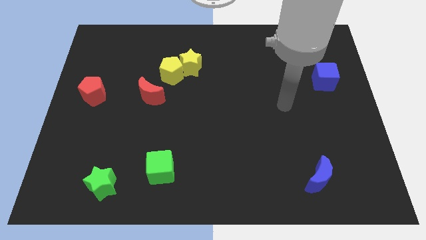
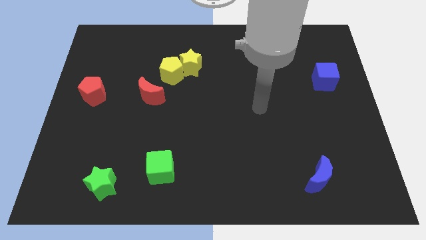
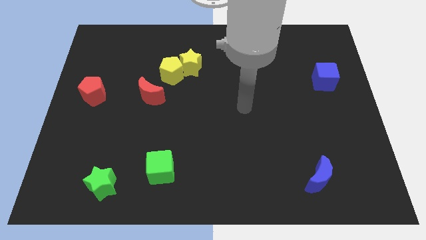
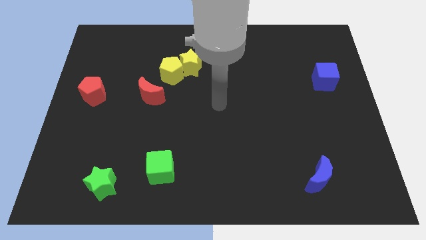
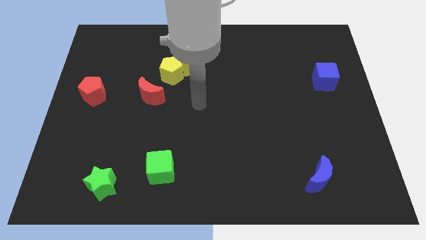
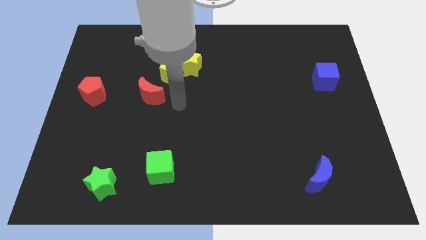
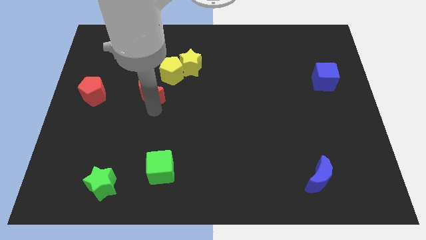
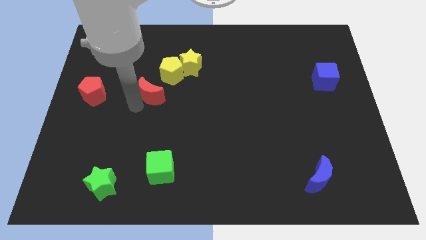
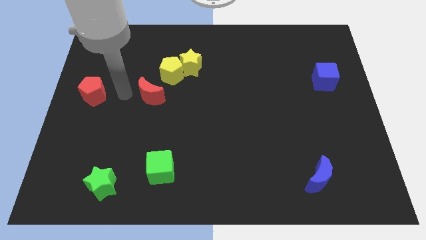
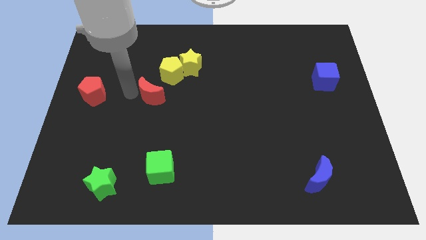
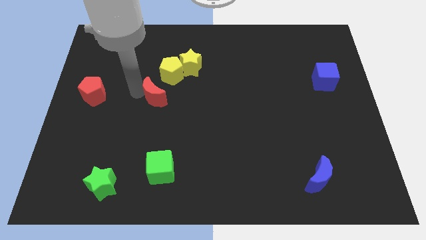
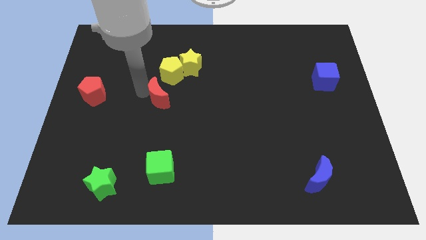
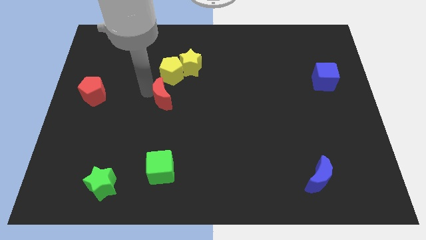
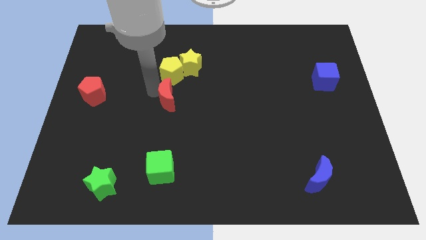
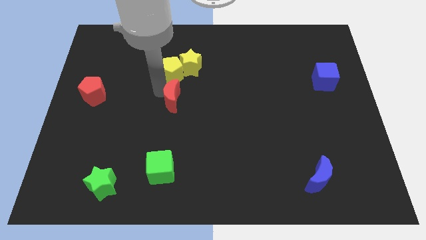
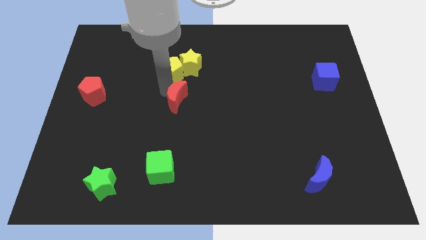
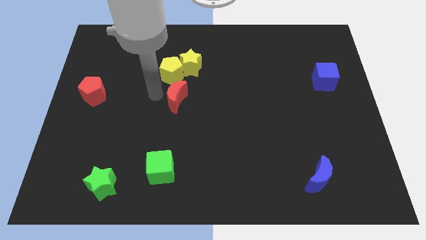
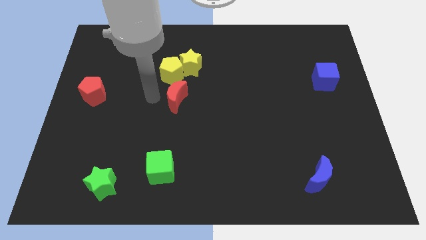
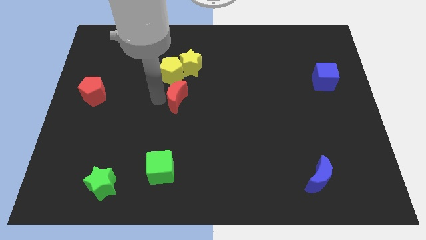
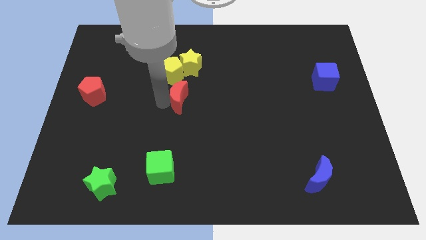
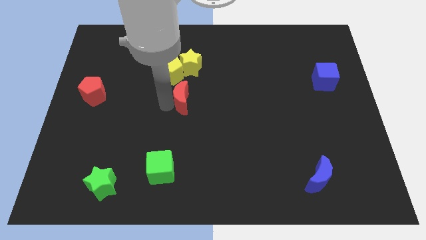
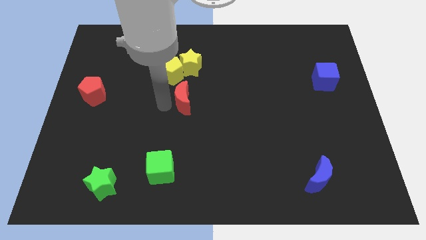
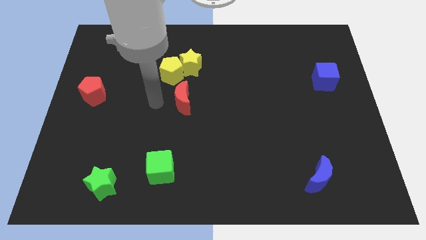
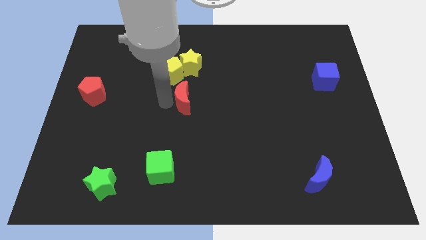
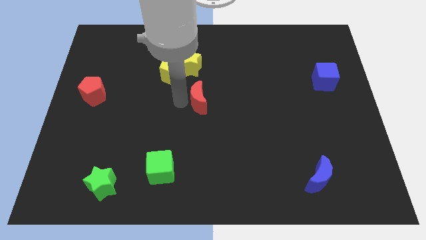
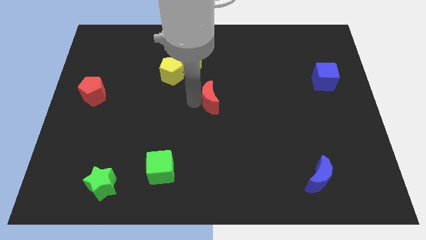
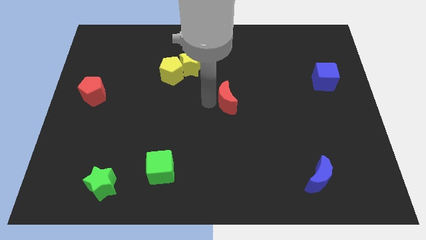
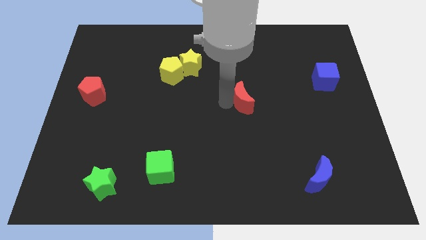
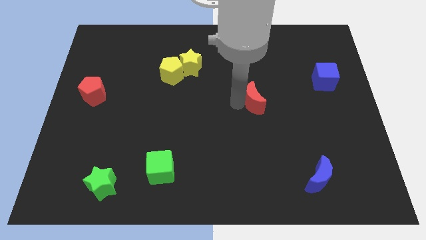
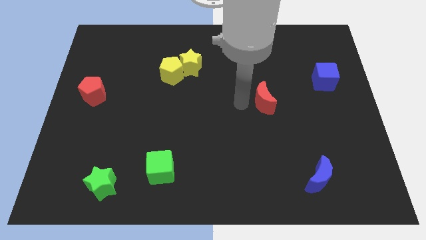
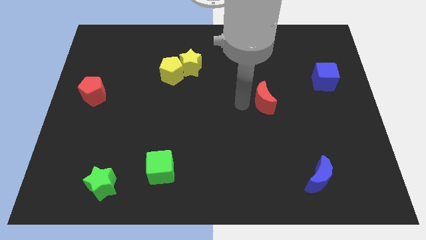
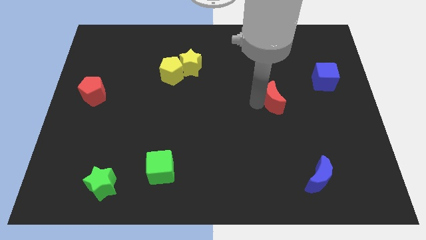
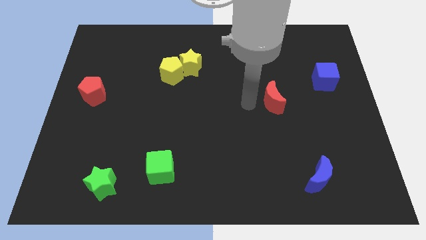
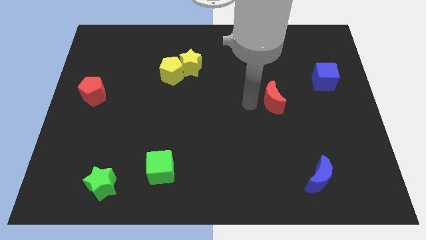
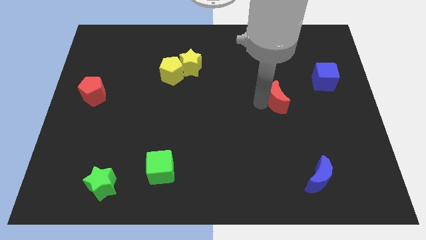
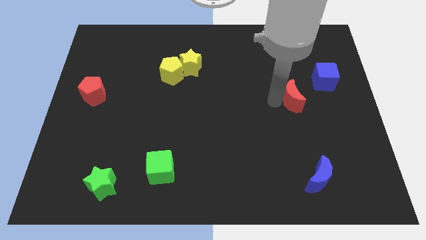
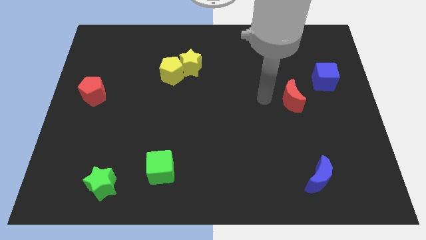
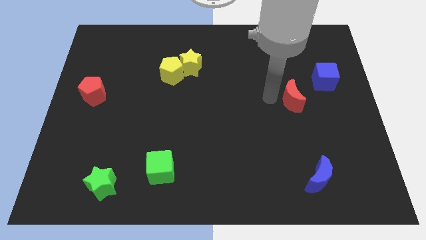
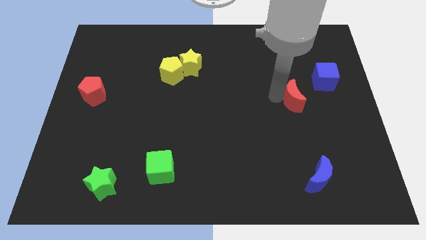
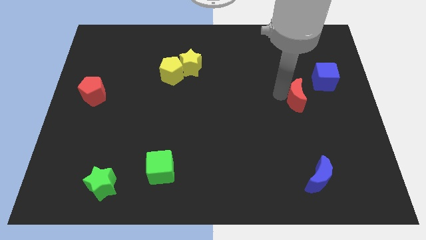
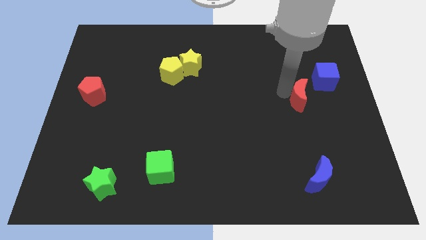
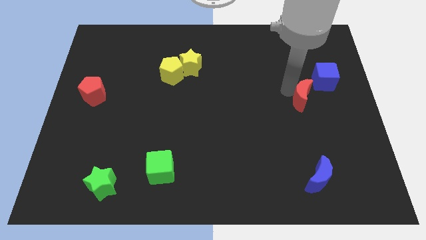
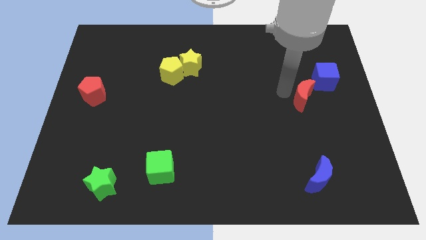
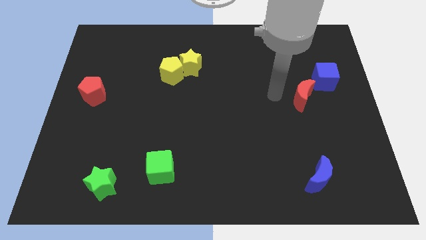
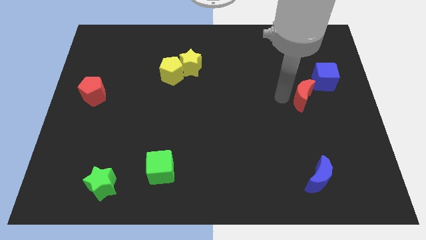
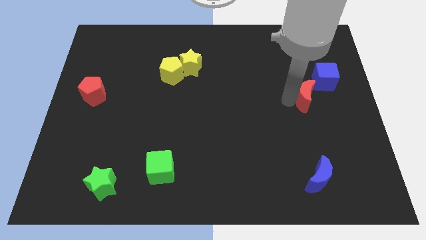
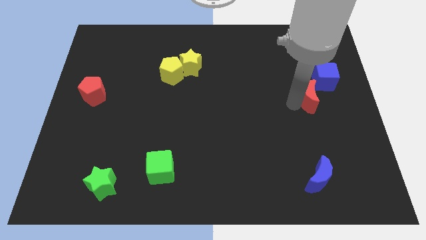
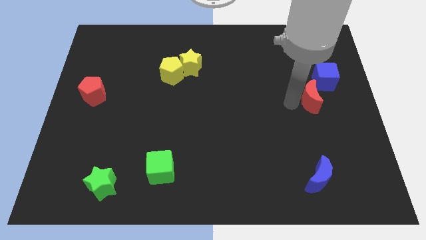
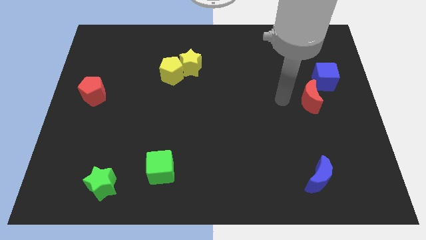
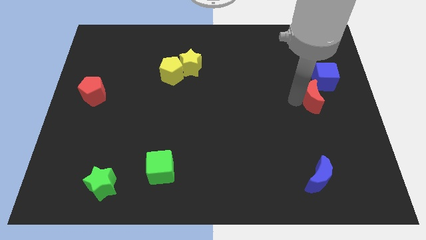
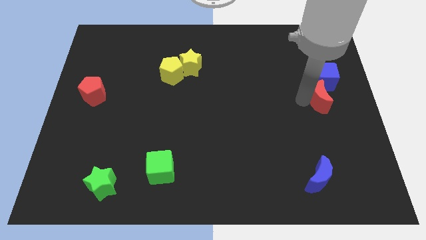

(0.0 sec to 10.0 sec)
slide the red moon to the center right

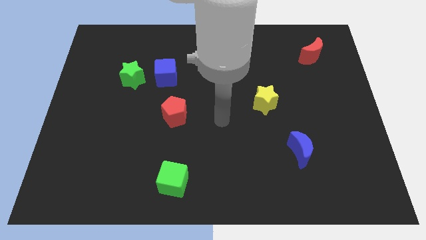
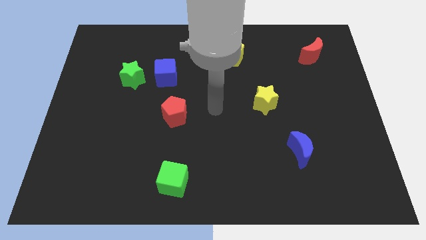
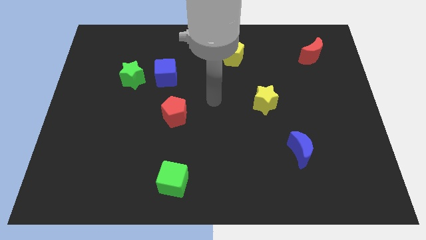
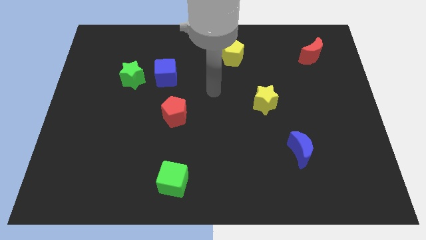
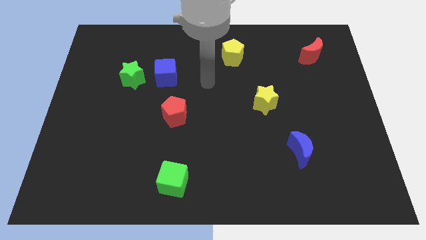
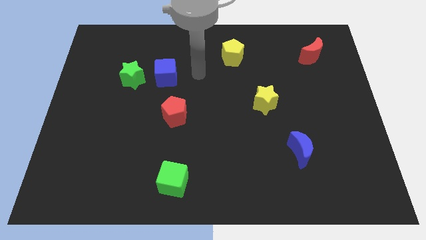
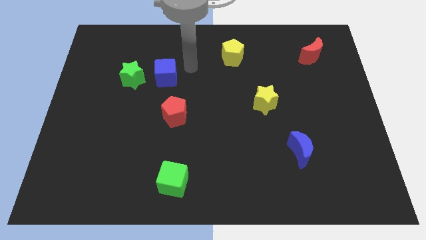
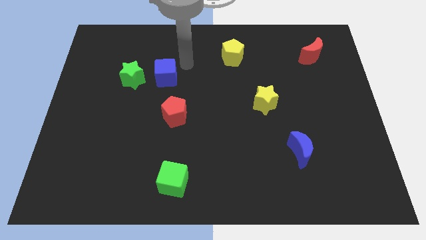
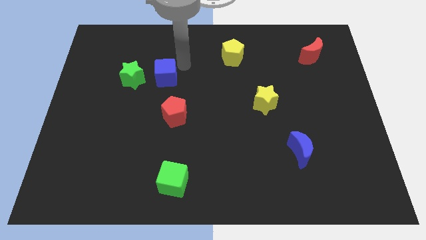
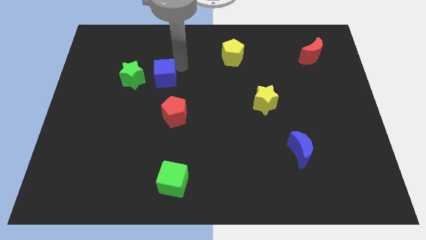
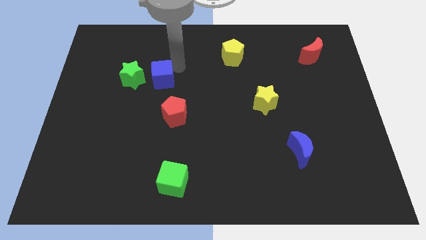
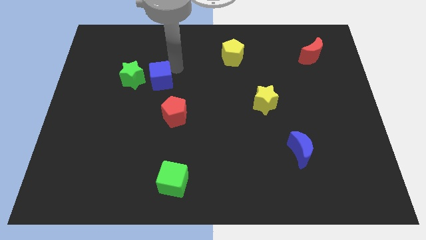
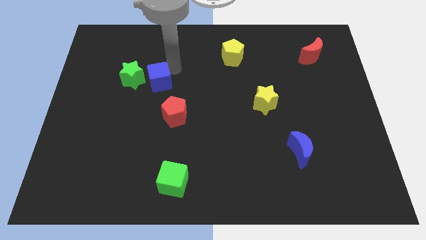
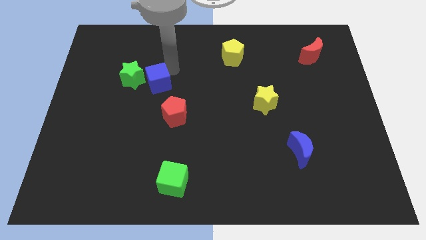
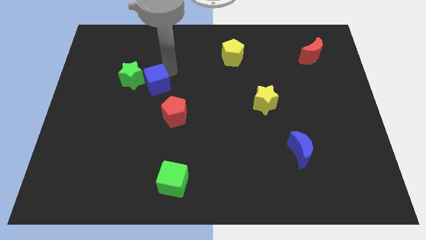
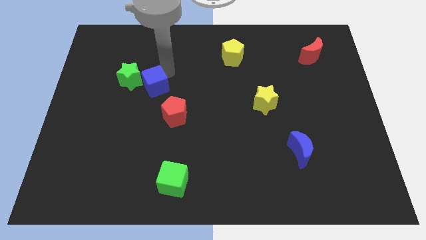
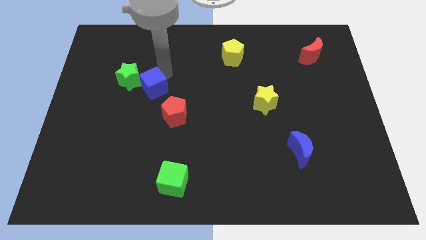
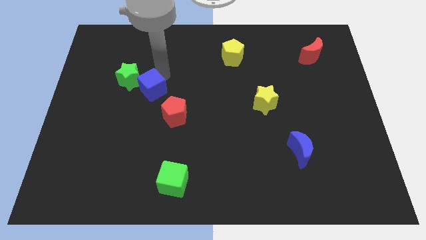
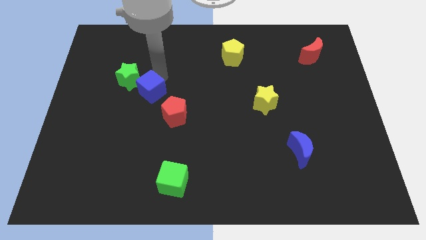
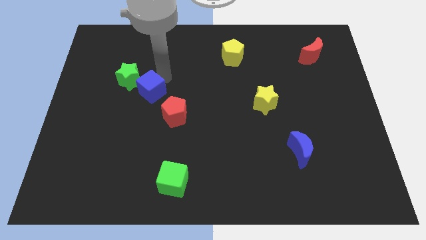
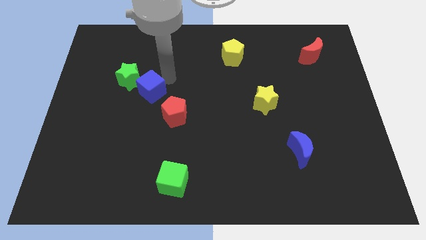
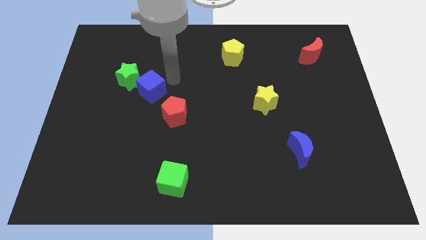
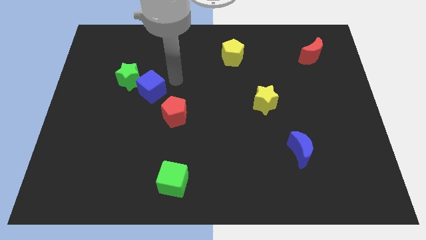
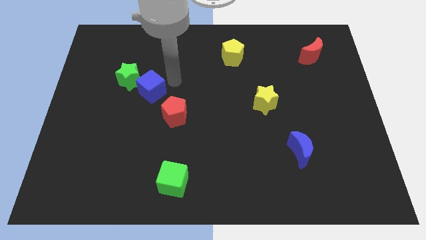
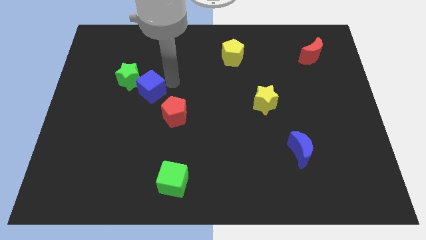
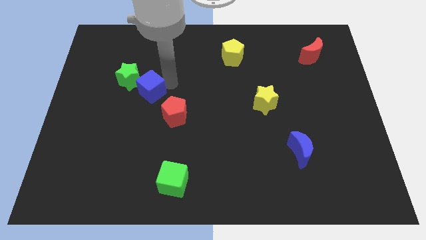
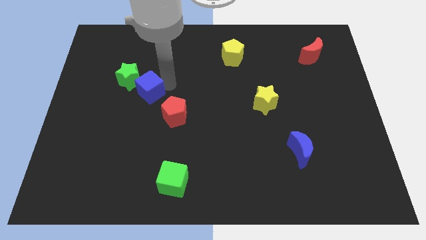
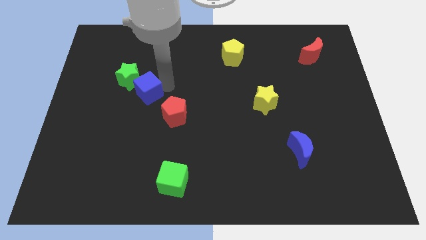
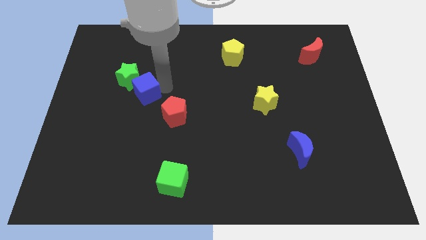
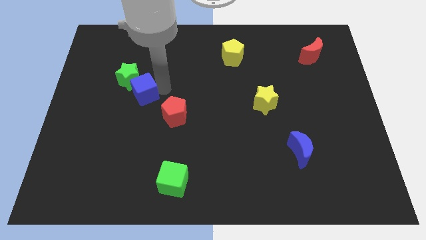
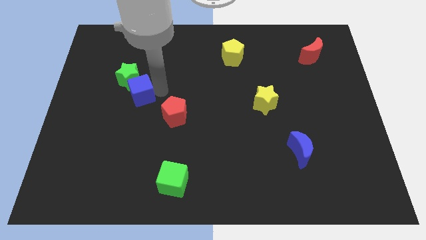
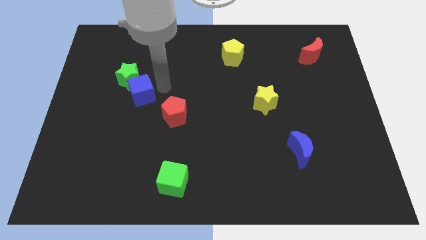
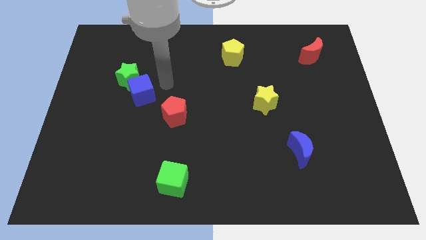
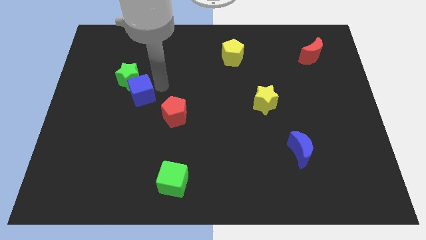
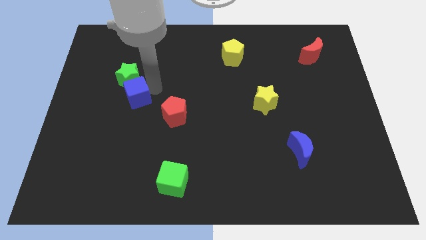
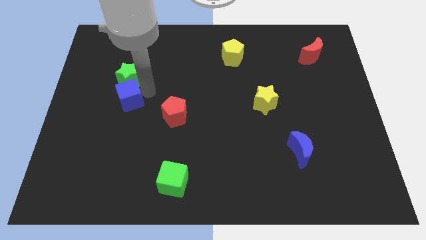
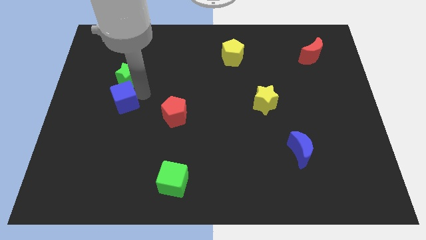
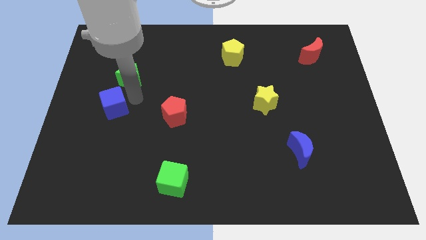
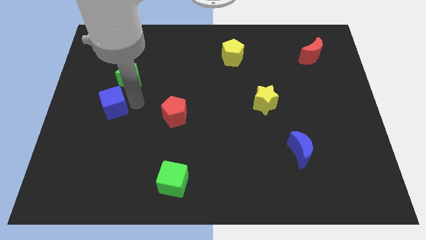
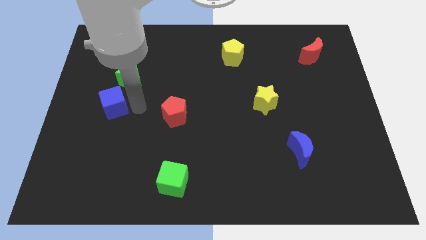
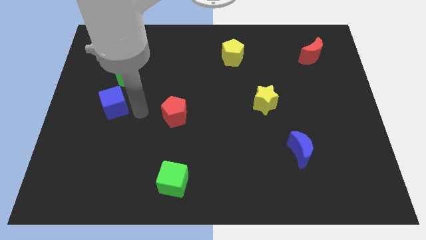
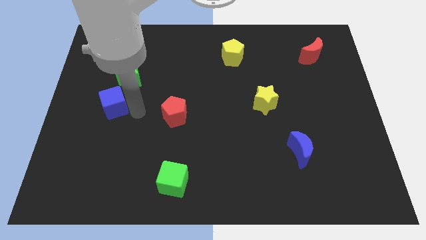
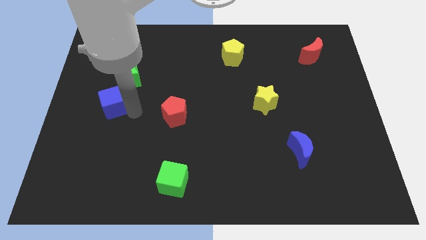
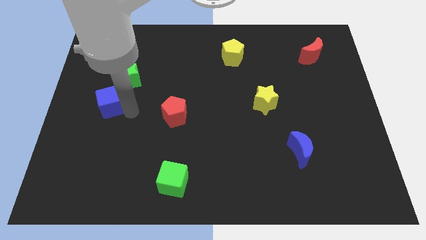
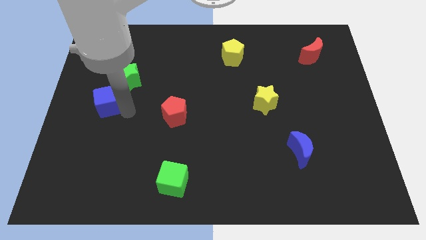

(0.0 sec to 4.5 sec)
put the blue cube to the center left
